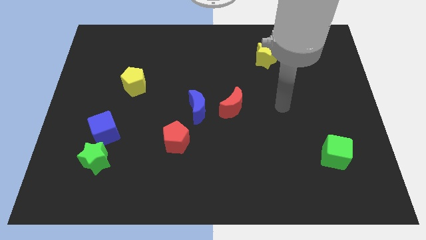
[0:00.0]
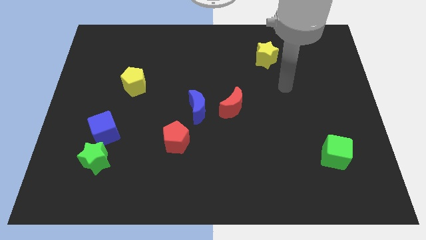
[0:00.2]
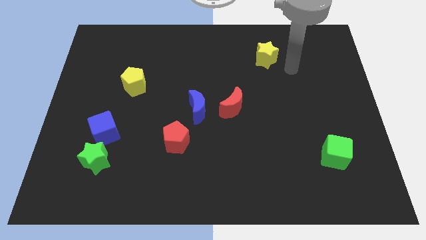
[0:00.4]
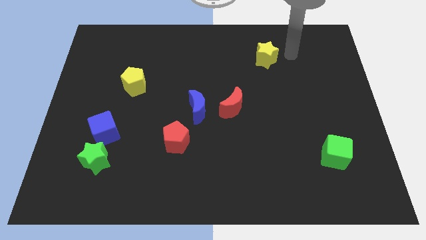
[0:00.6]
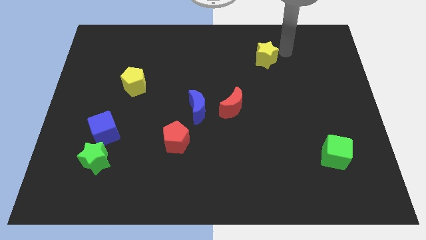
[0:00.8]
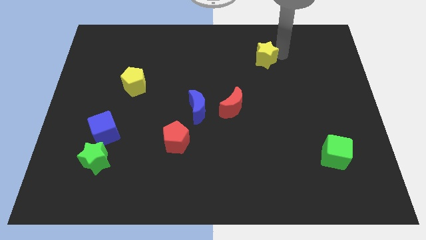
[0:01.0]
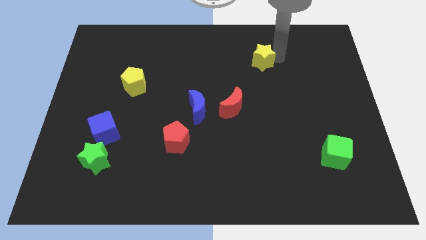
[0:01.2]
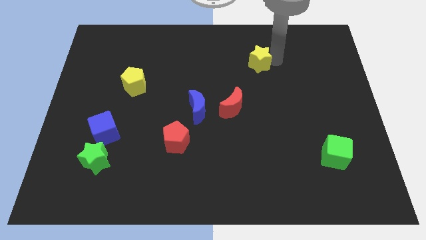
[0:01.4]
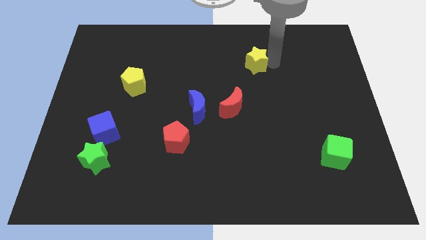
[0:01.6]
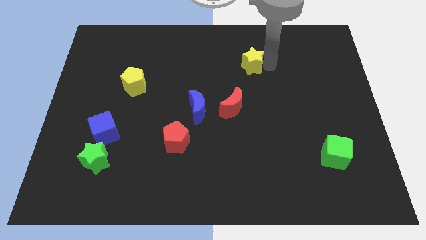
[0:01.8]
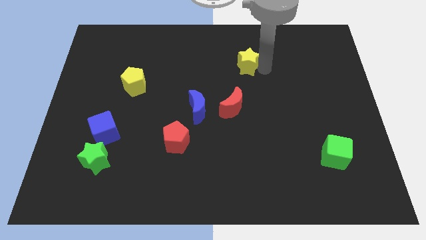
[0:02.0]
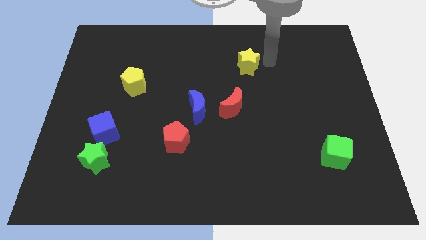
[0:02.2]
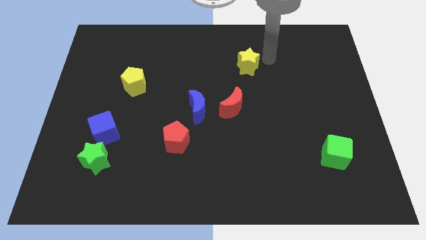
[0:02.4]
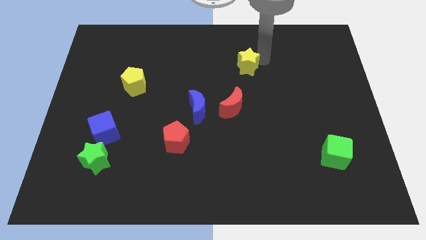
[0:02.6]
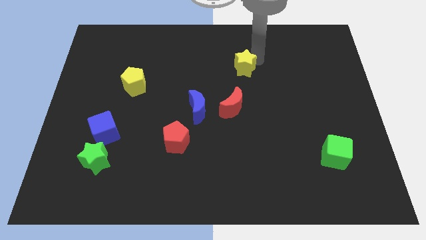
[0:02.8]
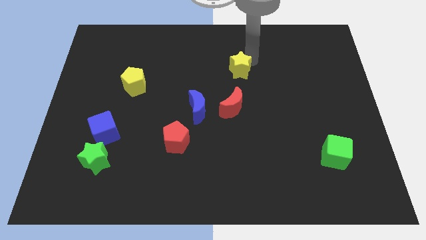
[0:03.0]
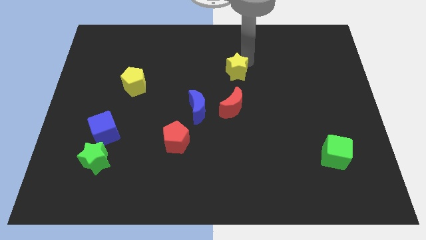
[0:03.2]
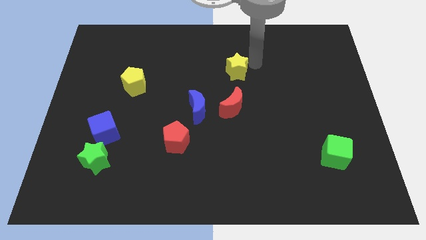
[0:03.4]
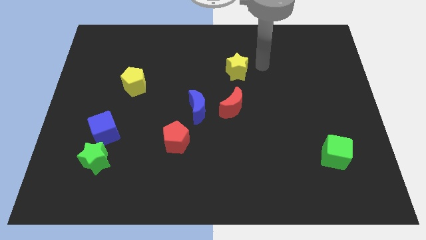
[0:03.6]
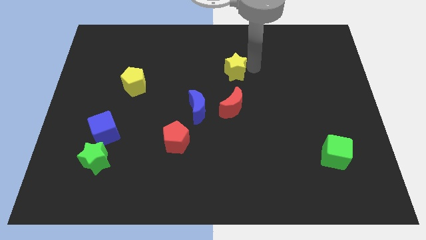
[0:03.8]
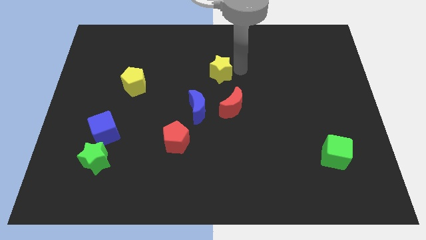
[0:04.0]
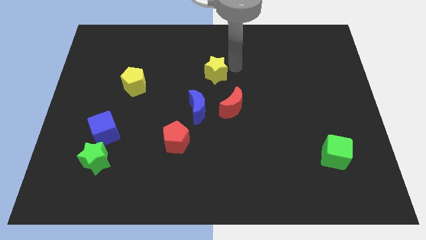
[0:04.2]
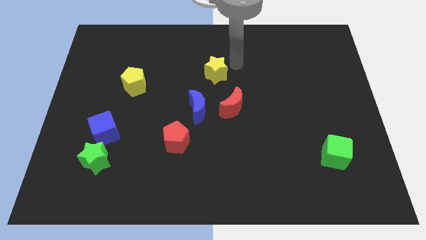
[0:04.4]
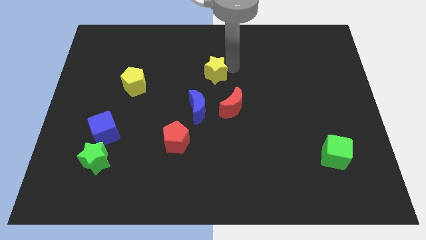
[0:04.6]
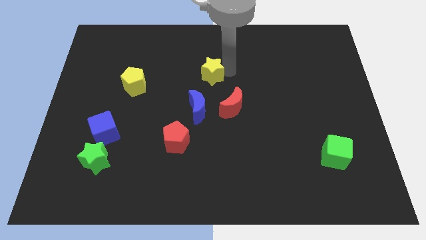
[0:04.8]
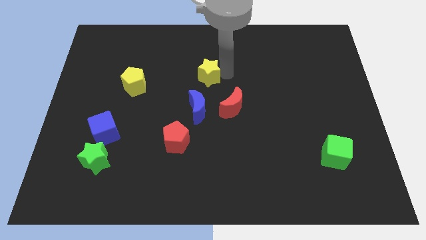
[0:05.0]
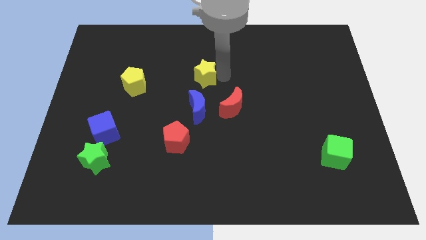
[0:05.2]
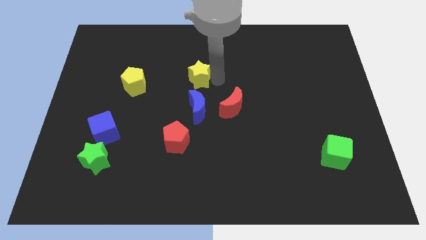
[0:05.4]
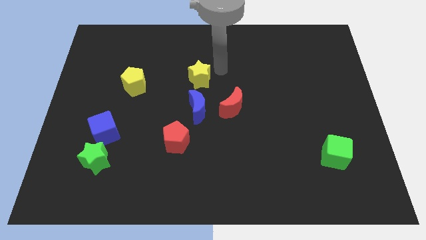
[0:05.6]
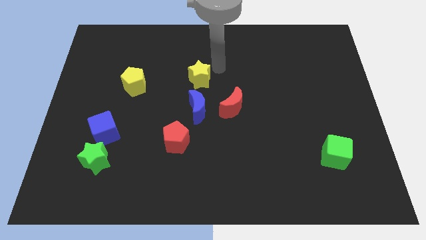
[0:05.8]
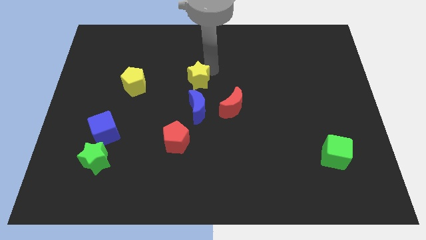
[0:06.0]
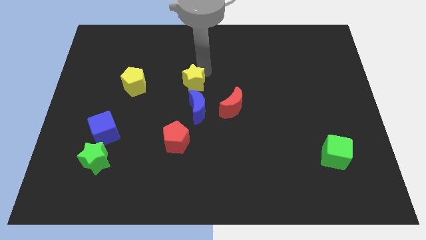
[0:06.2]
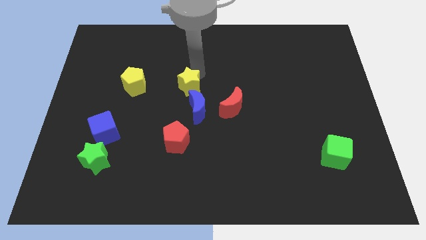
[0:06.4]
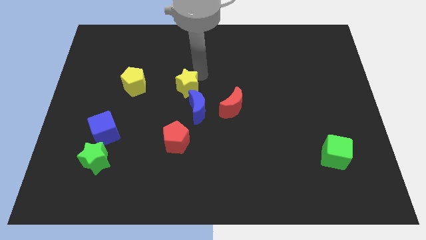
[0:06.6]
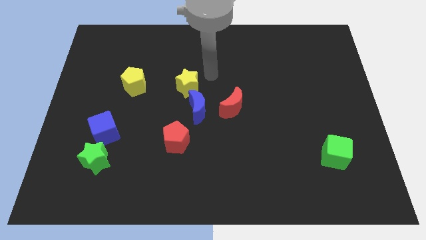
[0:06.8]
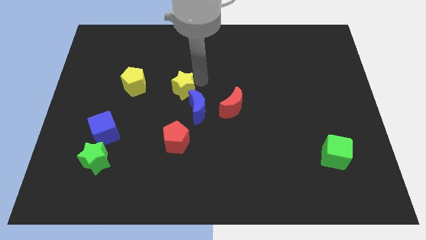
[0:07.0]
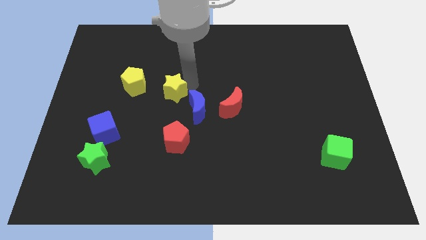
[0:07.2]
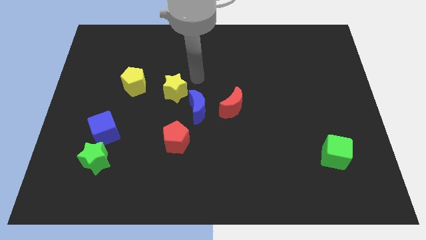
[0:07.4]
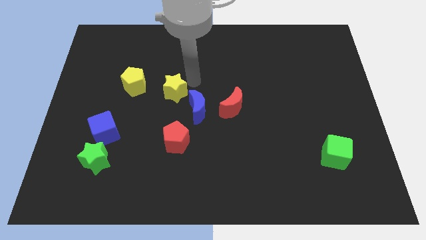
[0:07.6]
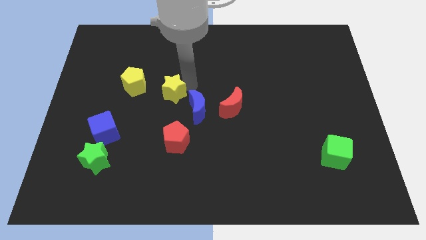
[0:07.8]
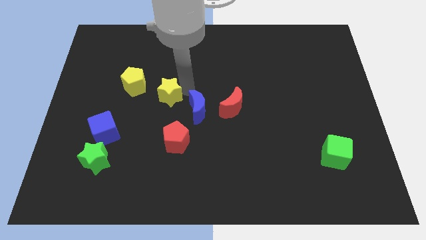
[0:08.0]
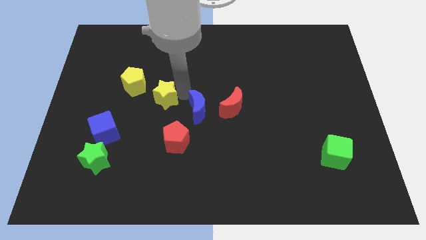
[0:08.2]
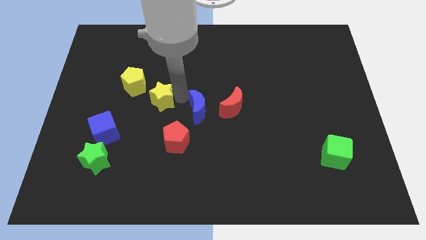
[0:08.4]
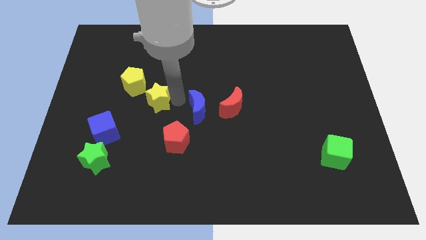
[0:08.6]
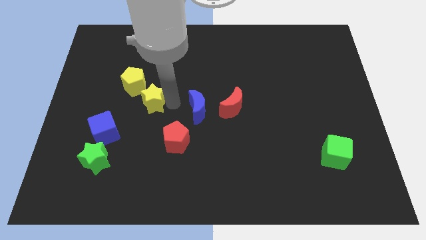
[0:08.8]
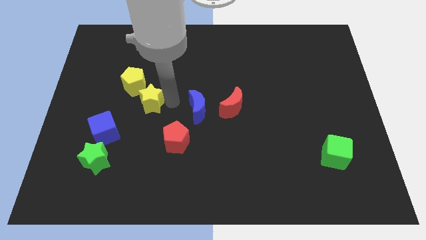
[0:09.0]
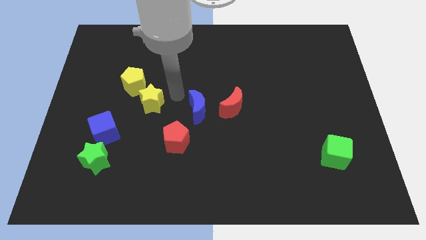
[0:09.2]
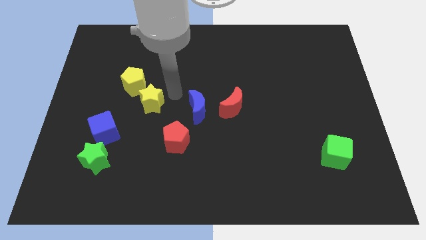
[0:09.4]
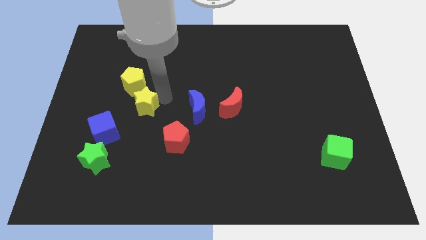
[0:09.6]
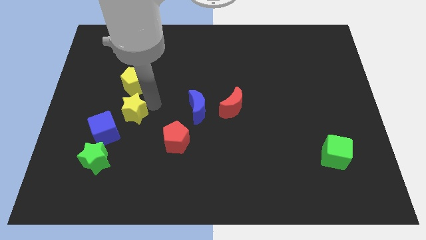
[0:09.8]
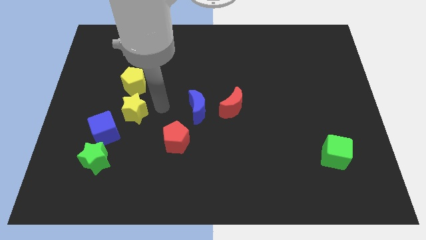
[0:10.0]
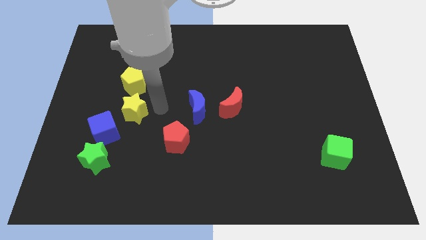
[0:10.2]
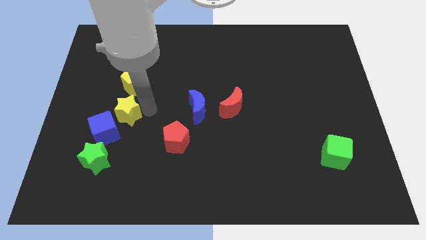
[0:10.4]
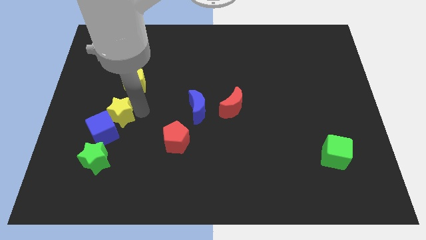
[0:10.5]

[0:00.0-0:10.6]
put the yellow star to the top side of the green star

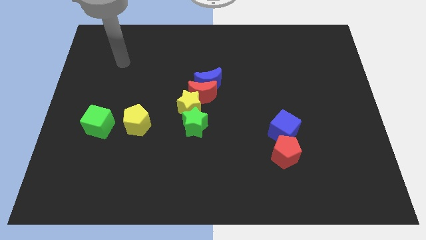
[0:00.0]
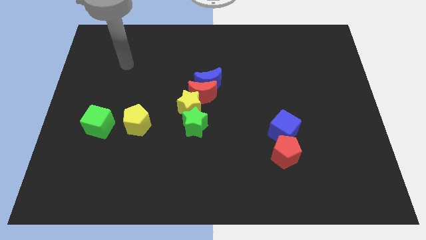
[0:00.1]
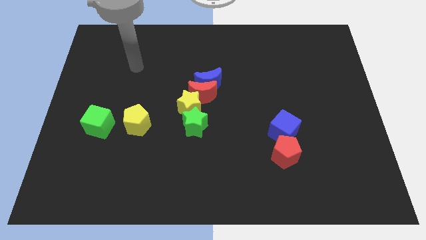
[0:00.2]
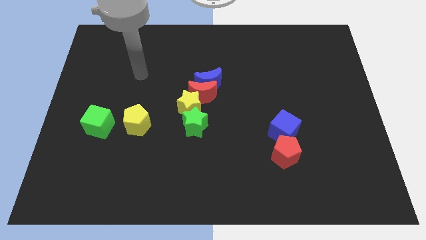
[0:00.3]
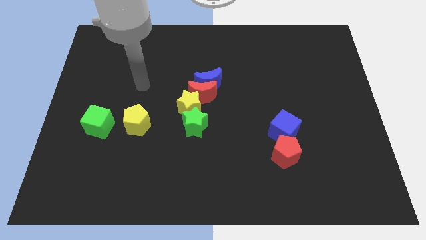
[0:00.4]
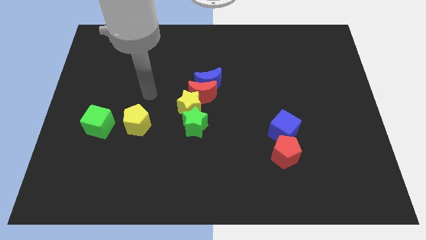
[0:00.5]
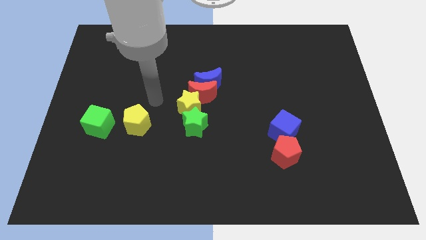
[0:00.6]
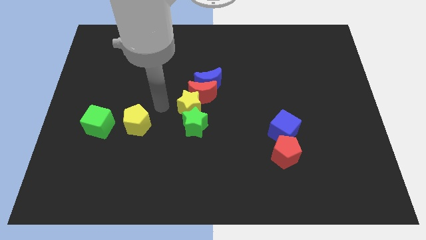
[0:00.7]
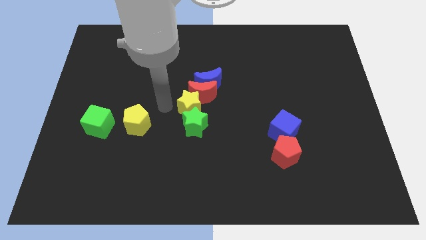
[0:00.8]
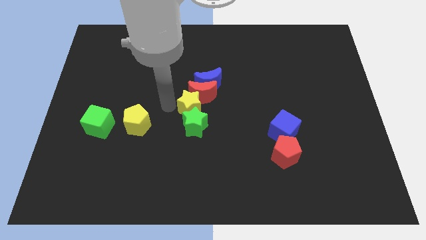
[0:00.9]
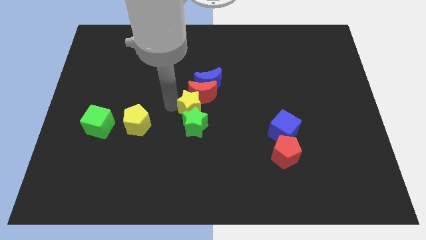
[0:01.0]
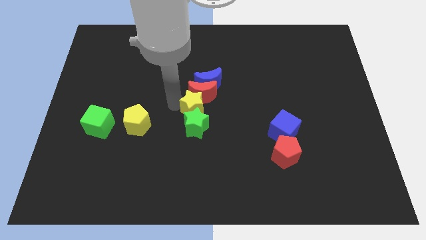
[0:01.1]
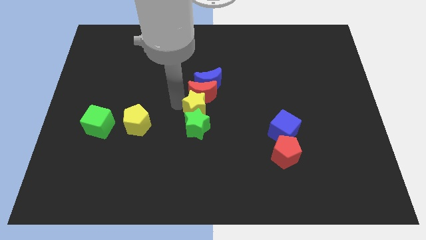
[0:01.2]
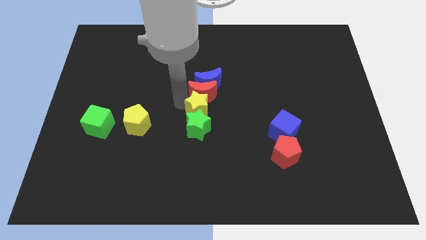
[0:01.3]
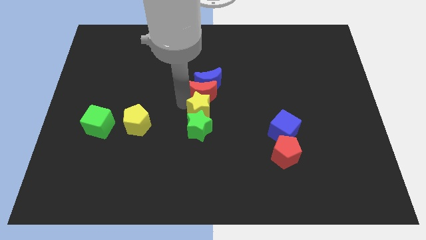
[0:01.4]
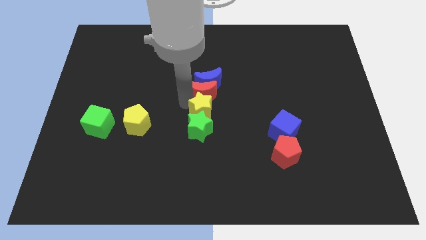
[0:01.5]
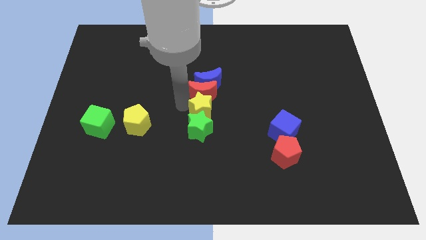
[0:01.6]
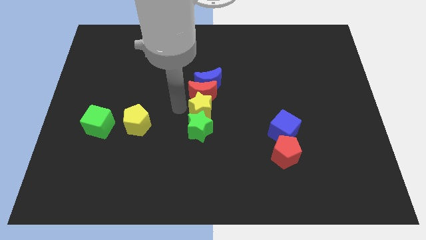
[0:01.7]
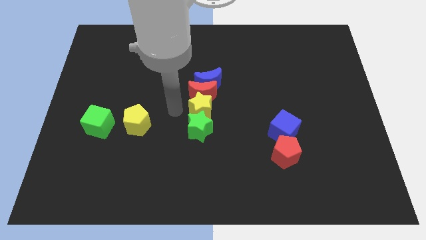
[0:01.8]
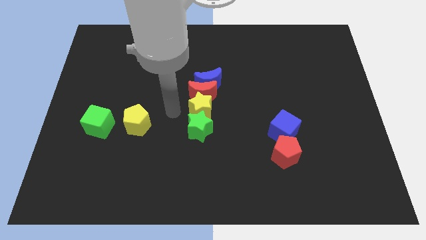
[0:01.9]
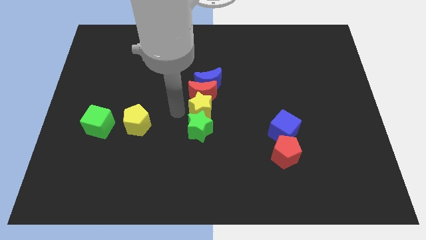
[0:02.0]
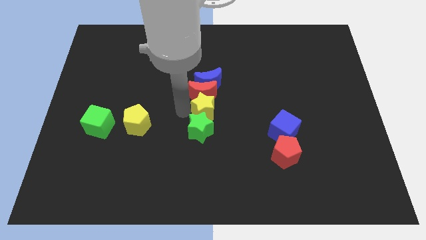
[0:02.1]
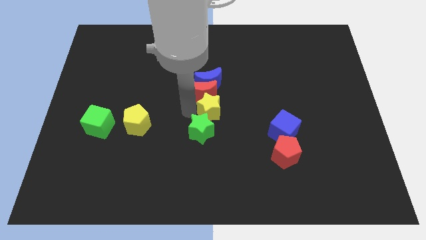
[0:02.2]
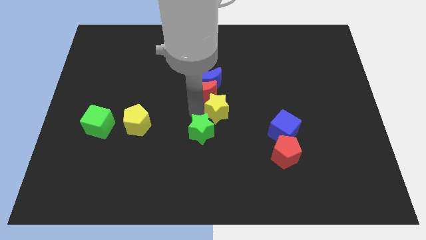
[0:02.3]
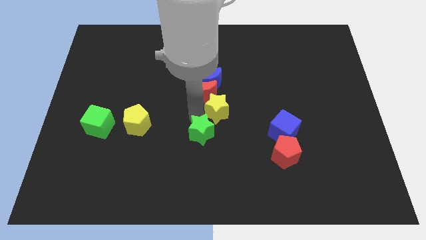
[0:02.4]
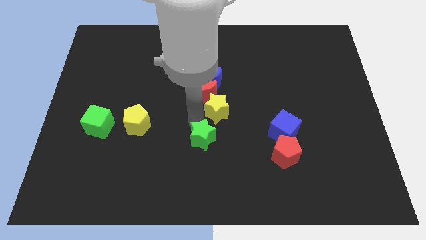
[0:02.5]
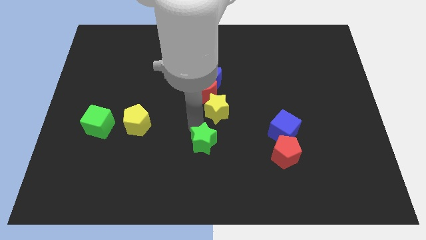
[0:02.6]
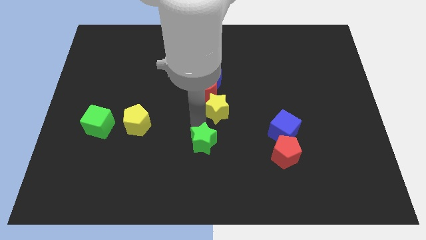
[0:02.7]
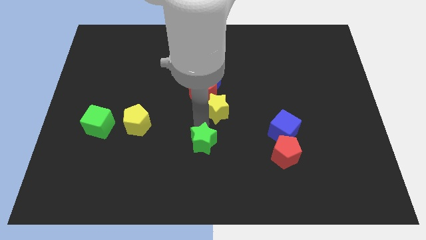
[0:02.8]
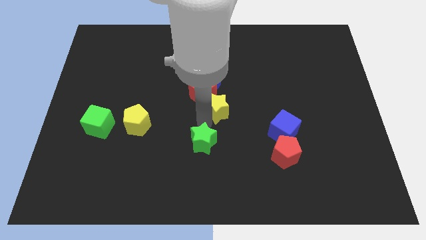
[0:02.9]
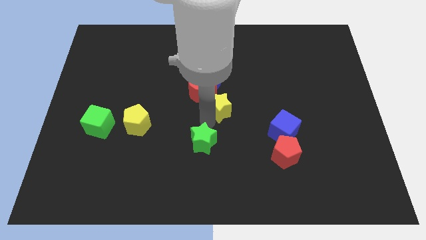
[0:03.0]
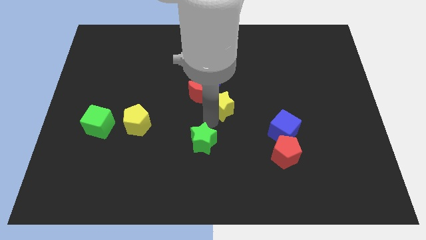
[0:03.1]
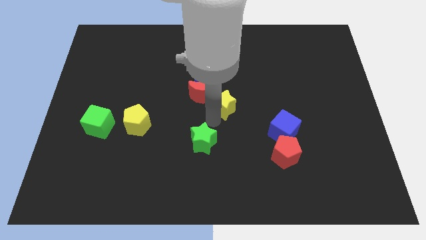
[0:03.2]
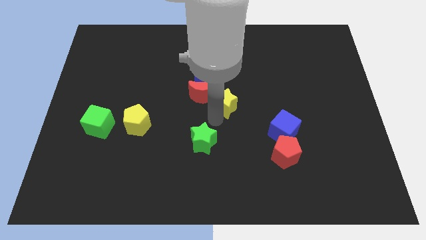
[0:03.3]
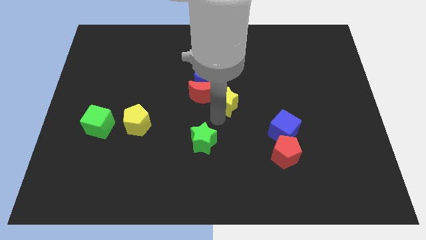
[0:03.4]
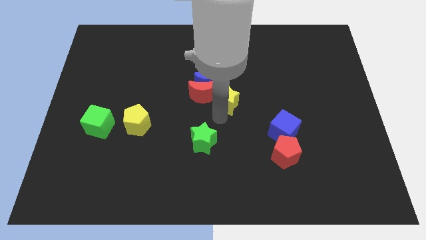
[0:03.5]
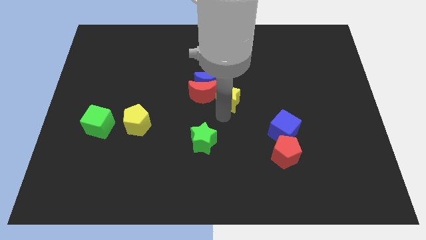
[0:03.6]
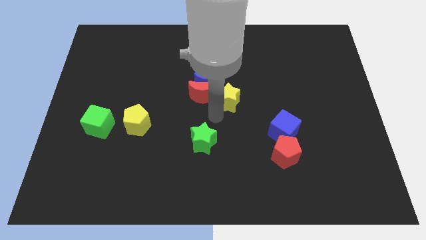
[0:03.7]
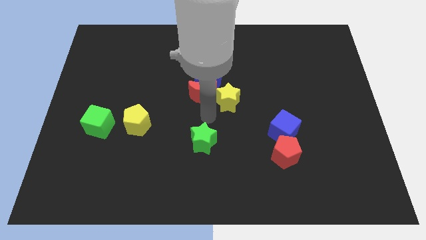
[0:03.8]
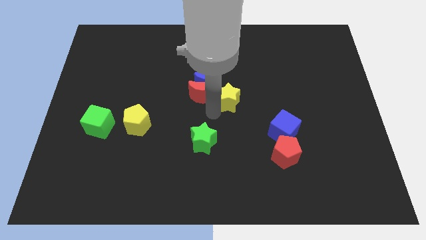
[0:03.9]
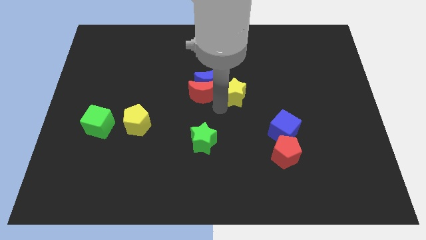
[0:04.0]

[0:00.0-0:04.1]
move the yellow star to the right of the blue moon
